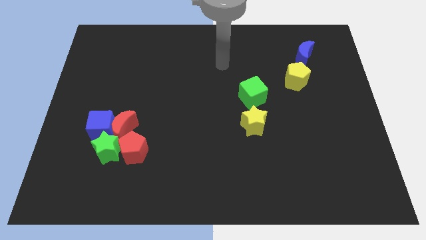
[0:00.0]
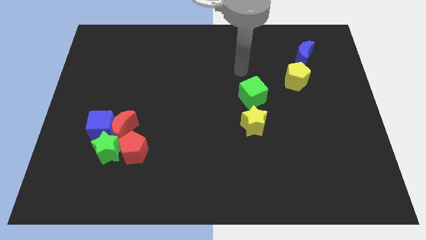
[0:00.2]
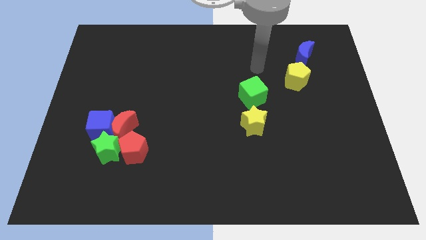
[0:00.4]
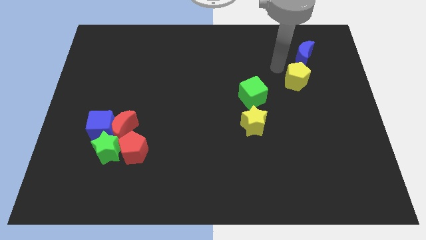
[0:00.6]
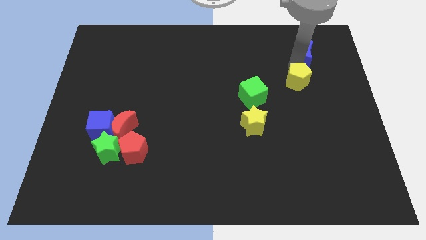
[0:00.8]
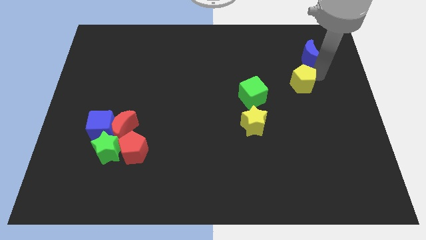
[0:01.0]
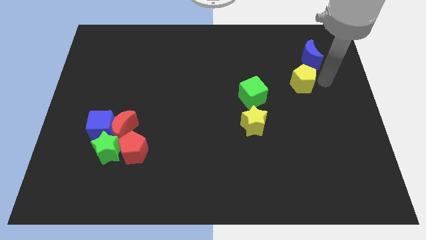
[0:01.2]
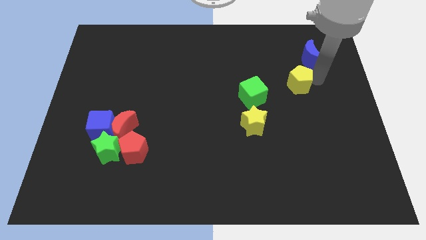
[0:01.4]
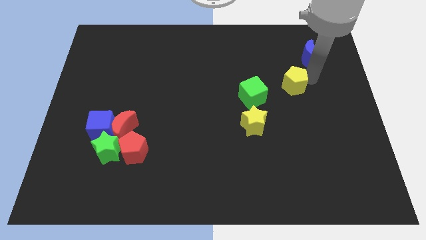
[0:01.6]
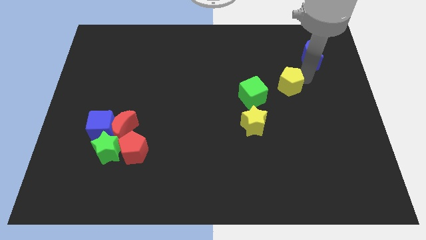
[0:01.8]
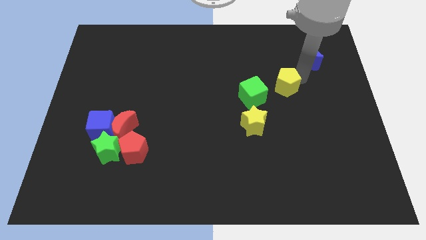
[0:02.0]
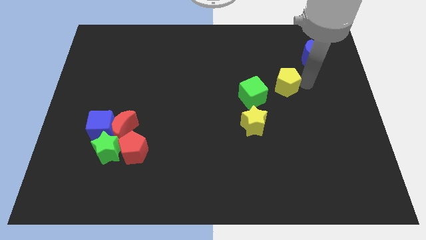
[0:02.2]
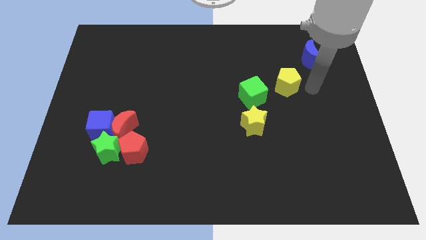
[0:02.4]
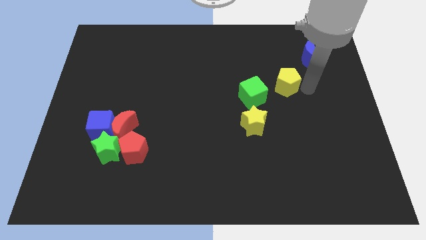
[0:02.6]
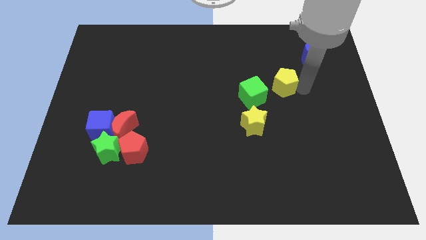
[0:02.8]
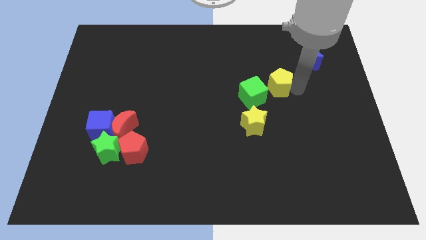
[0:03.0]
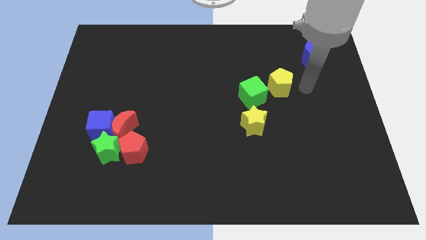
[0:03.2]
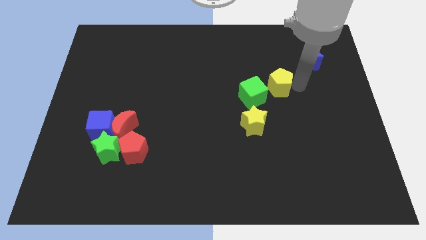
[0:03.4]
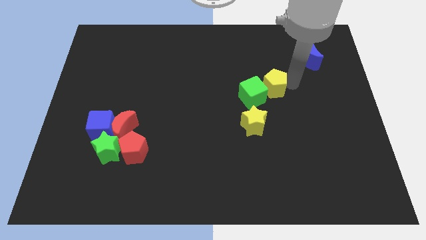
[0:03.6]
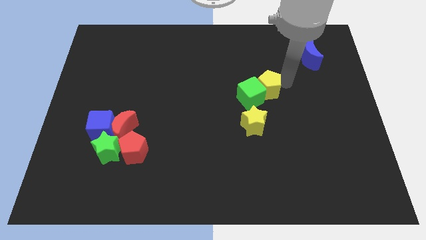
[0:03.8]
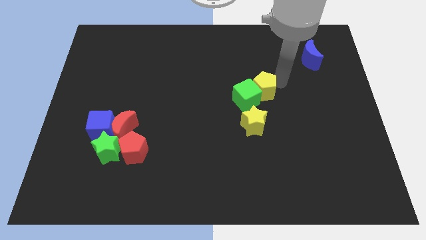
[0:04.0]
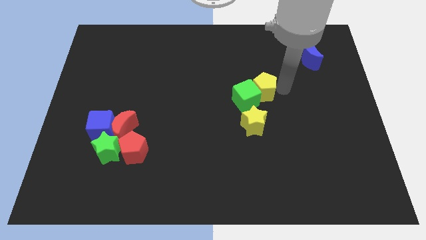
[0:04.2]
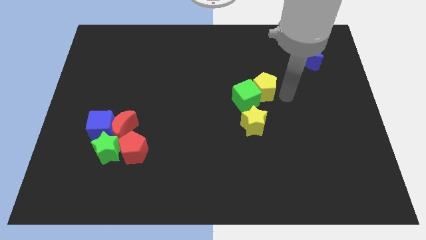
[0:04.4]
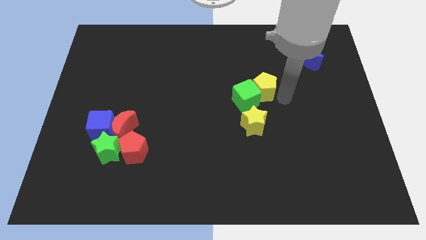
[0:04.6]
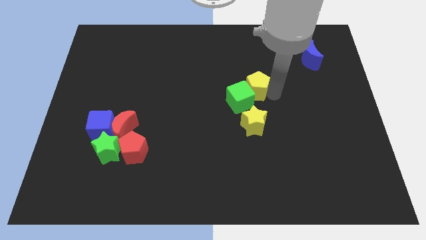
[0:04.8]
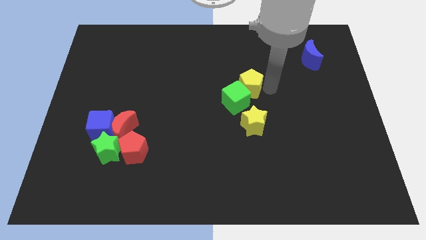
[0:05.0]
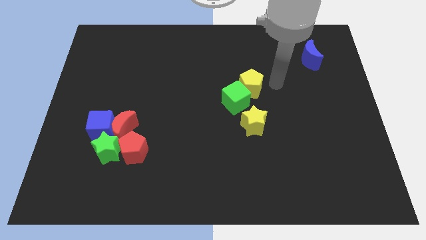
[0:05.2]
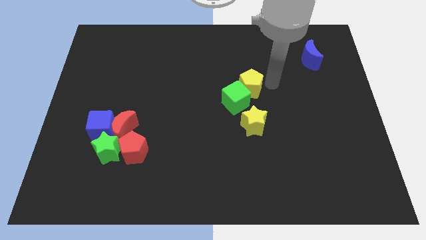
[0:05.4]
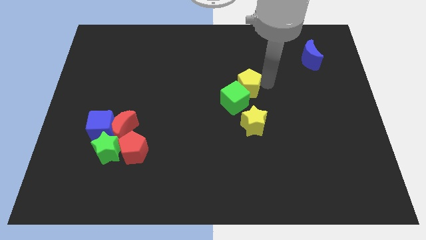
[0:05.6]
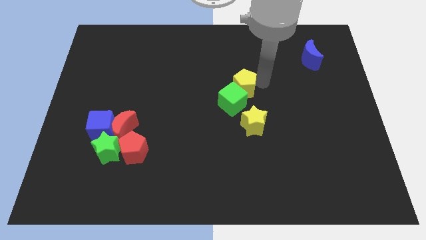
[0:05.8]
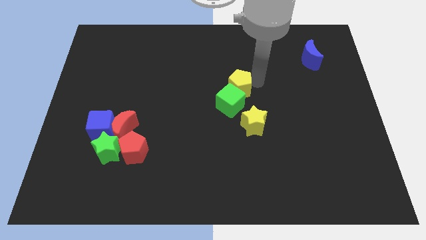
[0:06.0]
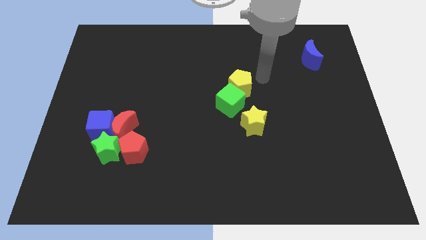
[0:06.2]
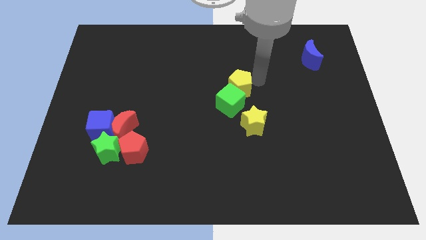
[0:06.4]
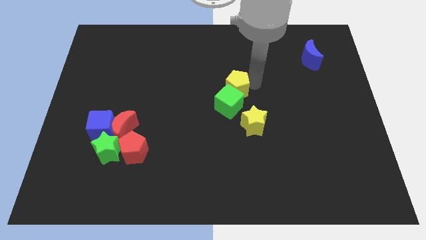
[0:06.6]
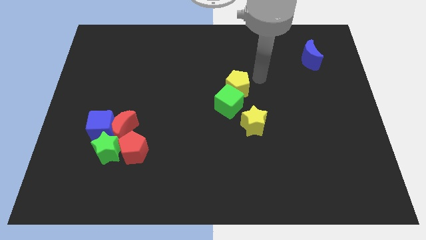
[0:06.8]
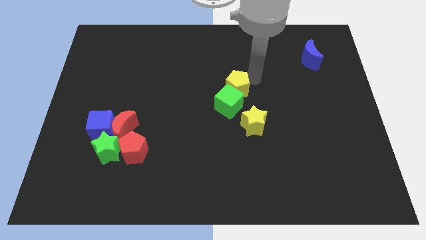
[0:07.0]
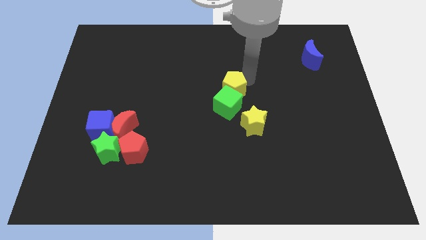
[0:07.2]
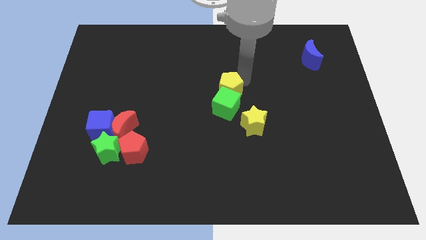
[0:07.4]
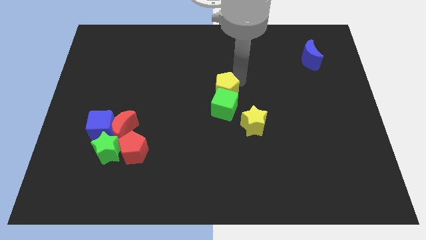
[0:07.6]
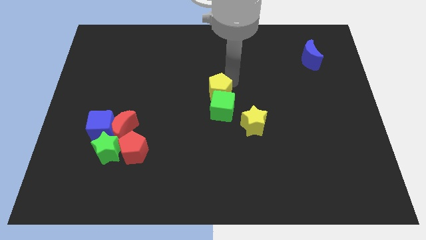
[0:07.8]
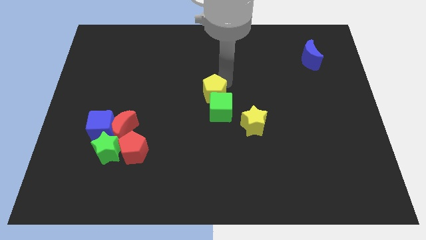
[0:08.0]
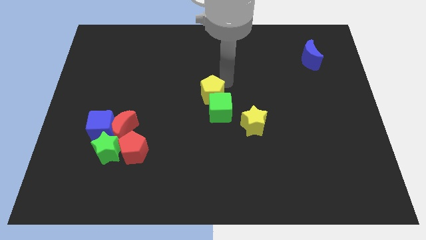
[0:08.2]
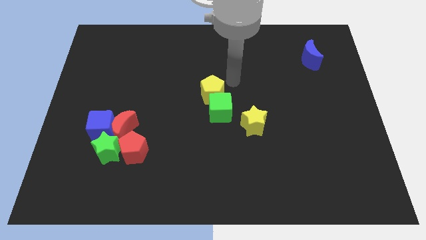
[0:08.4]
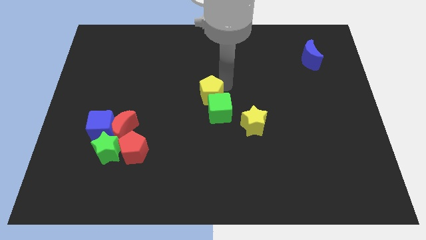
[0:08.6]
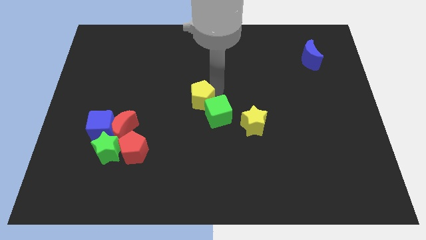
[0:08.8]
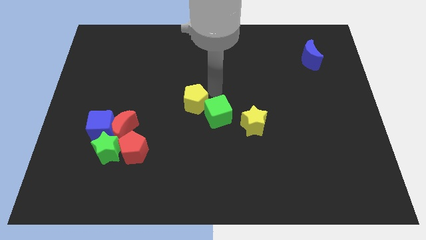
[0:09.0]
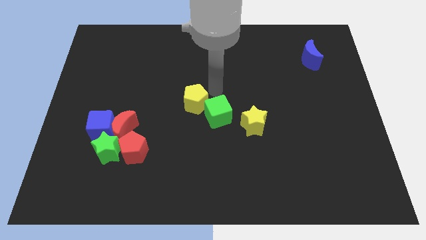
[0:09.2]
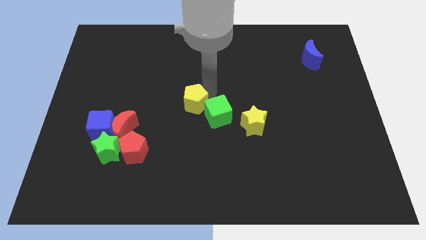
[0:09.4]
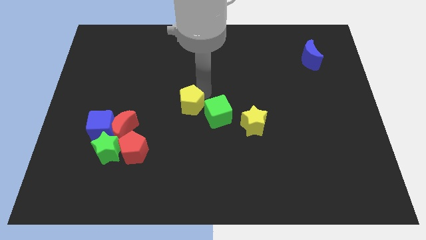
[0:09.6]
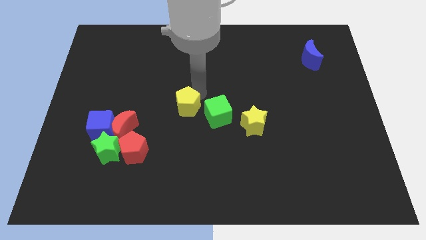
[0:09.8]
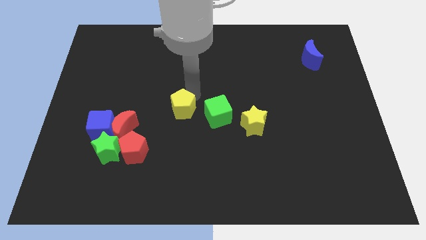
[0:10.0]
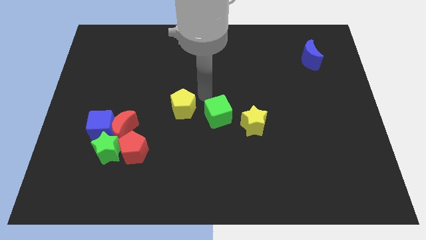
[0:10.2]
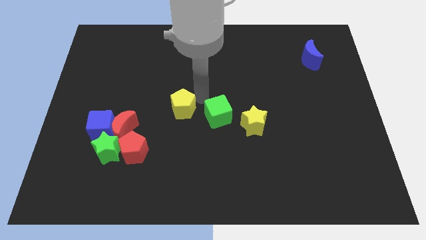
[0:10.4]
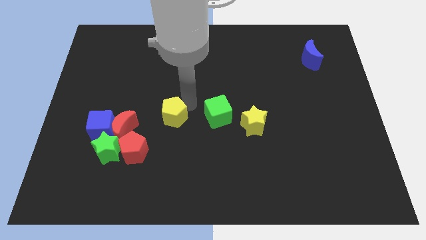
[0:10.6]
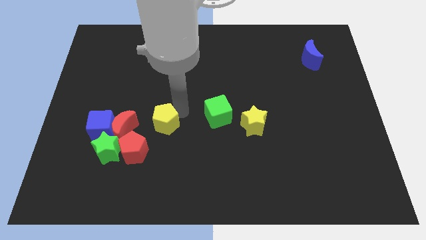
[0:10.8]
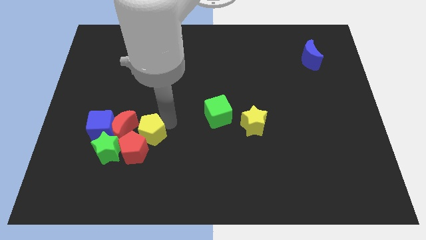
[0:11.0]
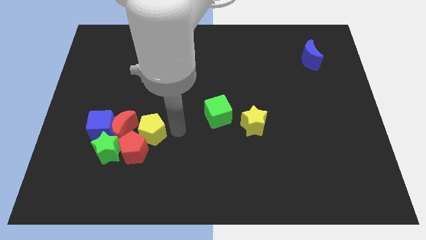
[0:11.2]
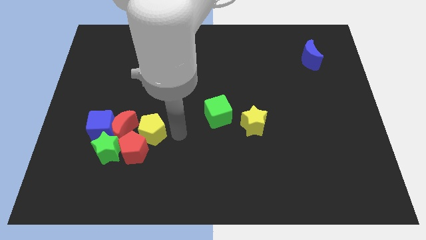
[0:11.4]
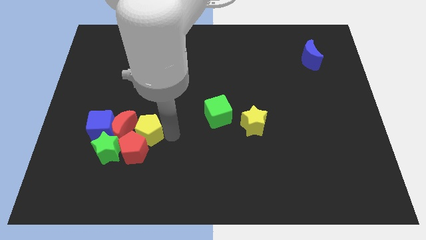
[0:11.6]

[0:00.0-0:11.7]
push the yellow pentagon close to the red moon
